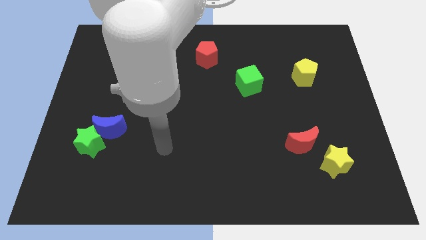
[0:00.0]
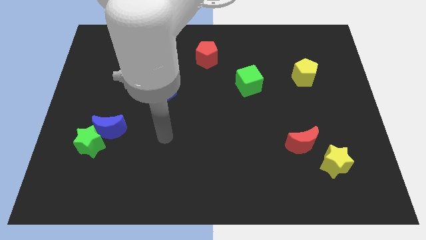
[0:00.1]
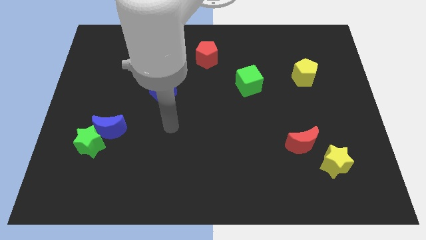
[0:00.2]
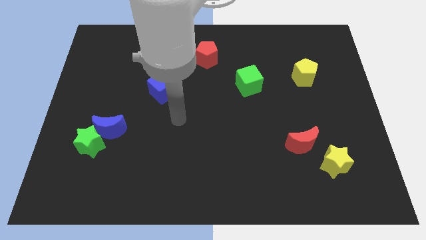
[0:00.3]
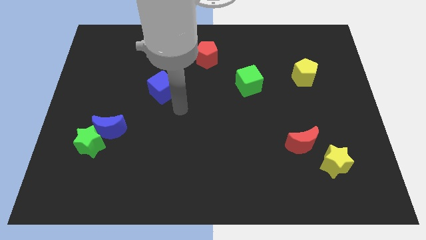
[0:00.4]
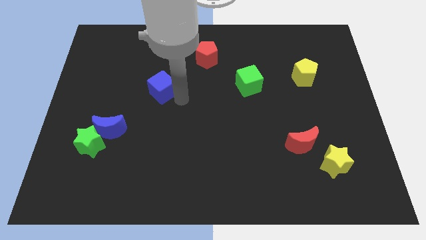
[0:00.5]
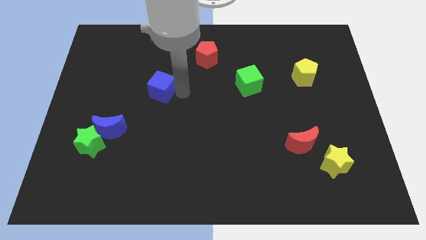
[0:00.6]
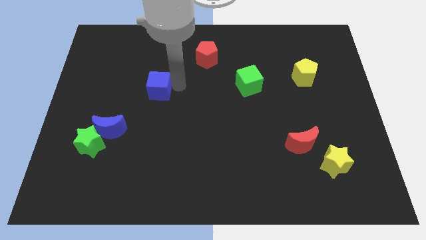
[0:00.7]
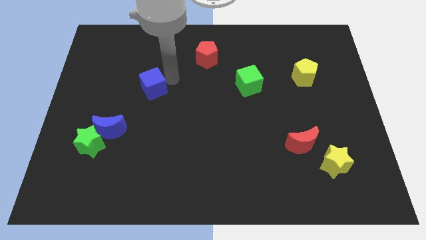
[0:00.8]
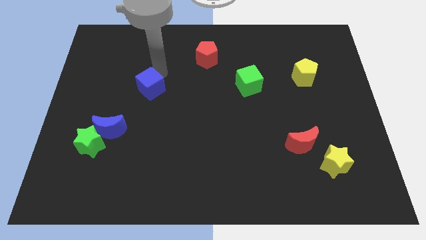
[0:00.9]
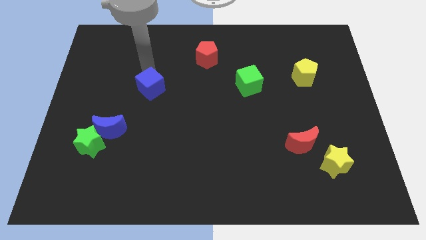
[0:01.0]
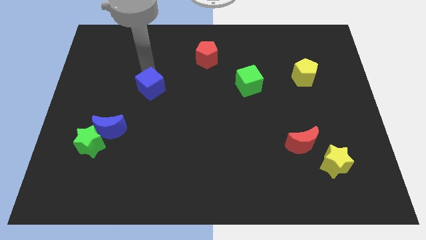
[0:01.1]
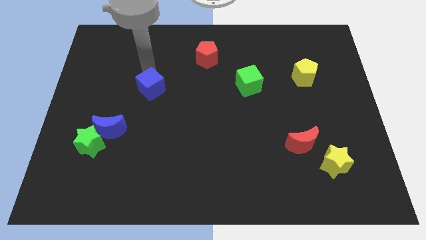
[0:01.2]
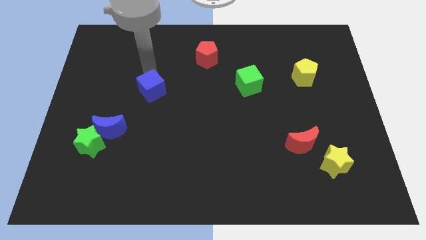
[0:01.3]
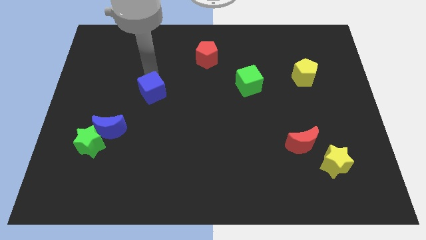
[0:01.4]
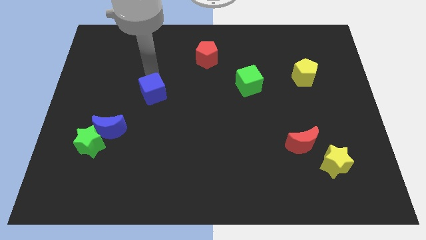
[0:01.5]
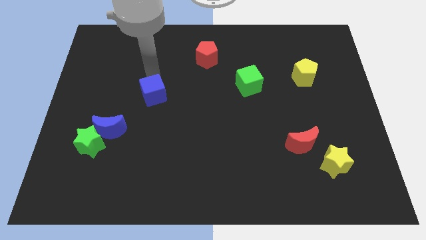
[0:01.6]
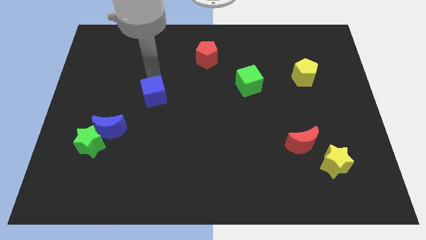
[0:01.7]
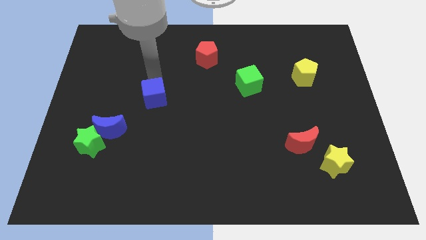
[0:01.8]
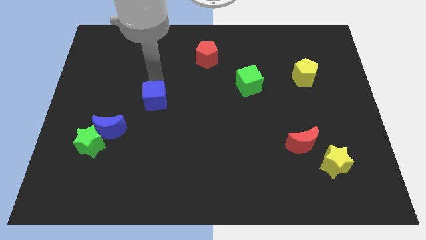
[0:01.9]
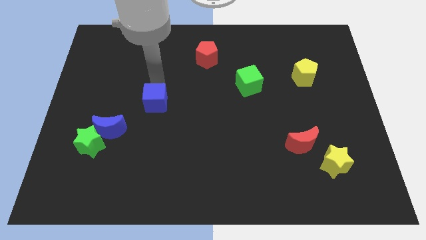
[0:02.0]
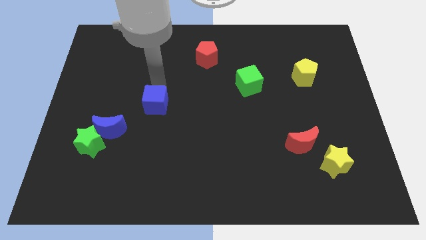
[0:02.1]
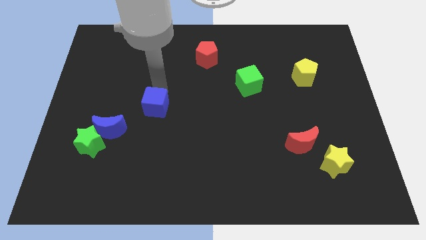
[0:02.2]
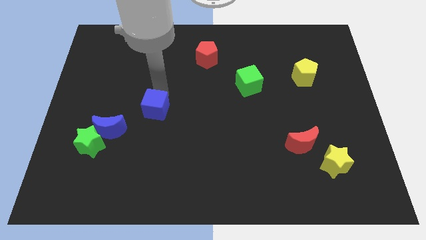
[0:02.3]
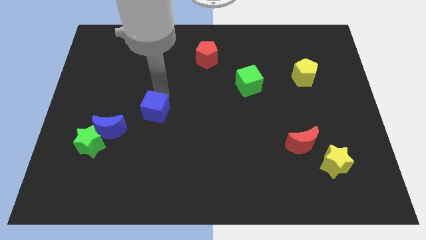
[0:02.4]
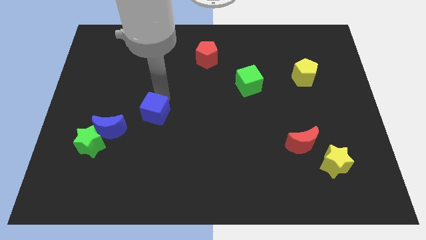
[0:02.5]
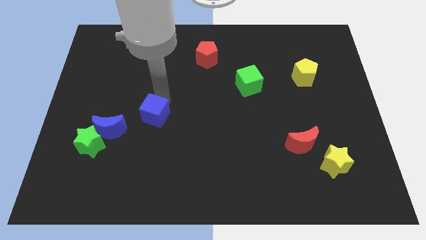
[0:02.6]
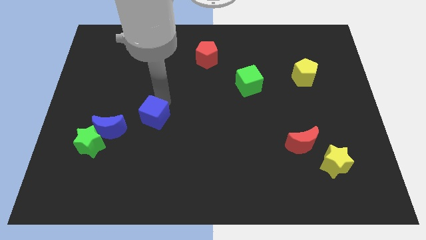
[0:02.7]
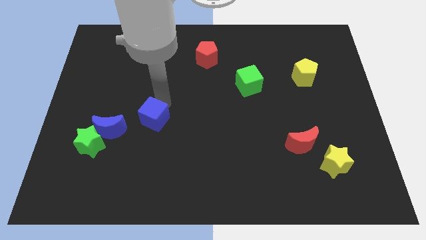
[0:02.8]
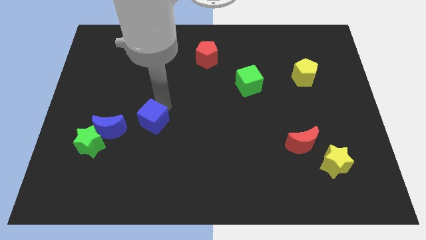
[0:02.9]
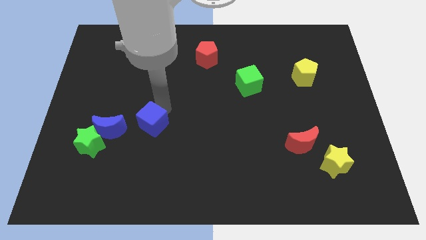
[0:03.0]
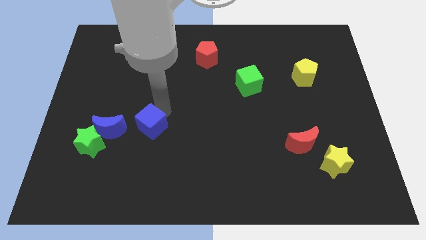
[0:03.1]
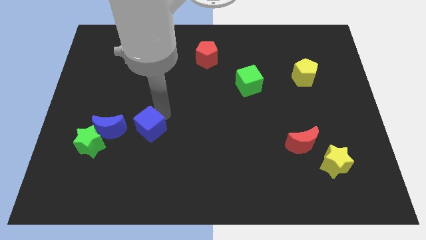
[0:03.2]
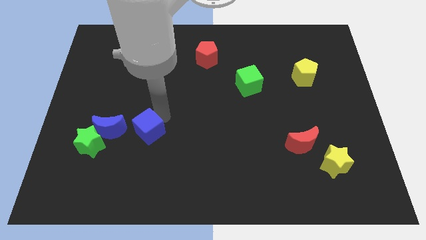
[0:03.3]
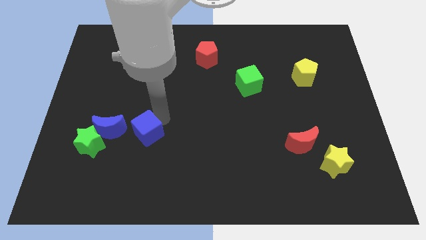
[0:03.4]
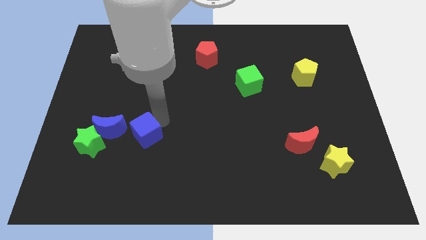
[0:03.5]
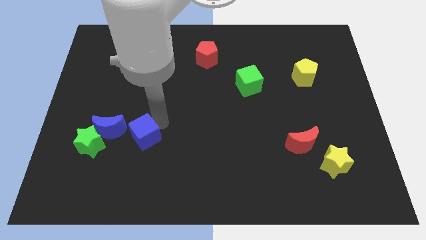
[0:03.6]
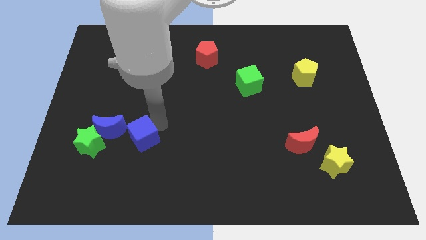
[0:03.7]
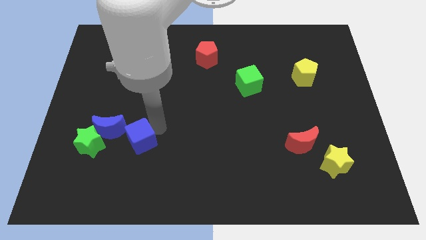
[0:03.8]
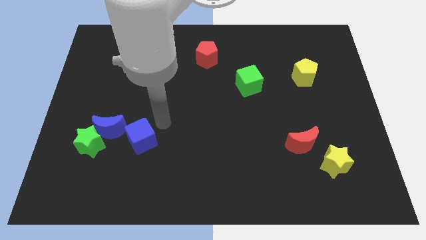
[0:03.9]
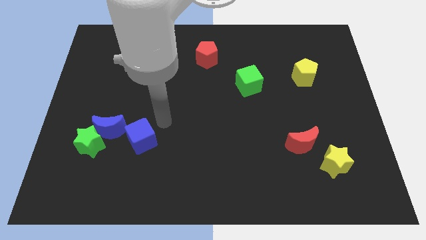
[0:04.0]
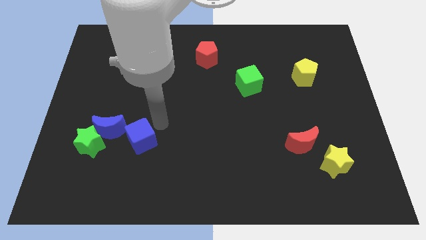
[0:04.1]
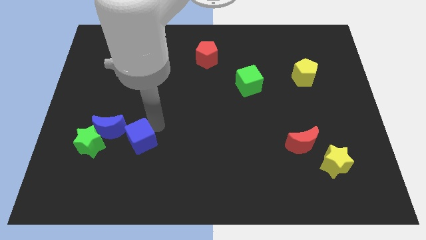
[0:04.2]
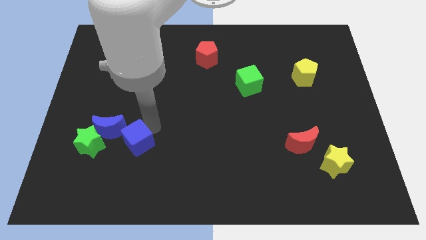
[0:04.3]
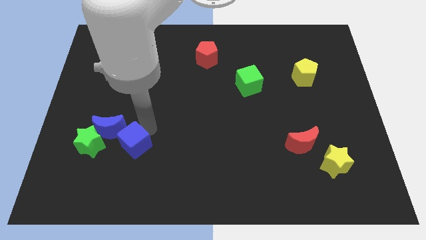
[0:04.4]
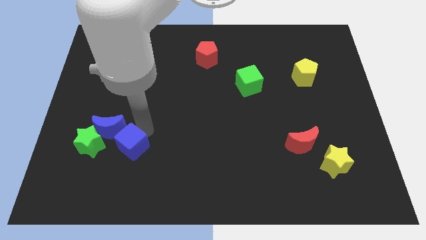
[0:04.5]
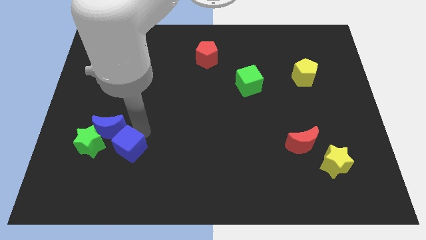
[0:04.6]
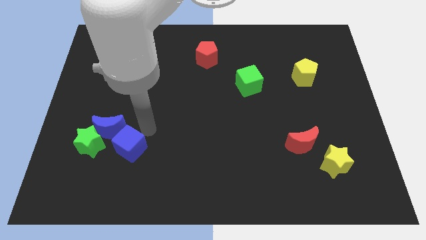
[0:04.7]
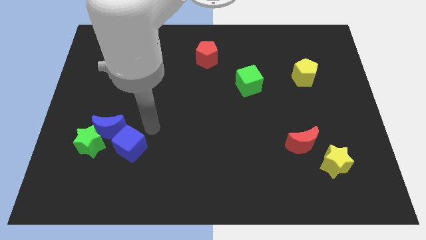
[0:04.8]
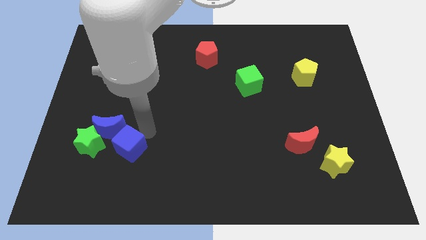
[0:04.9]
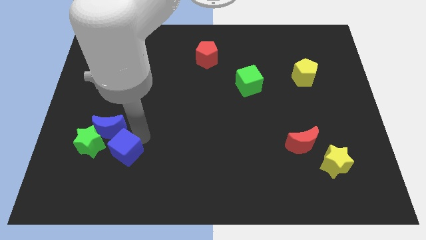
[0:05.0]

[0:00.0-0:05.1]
slide the blue cube to the bottom right of the green star

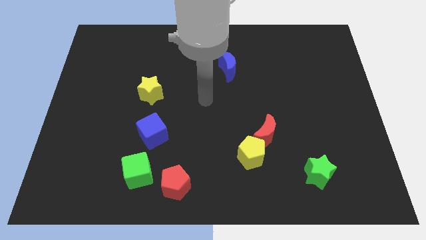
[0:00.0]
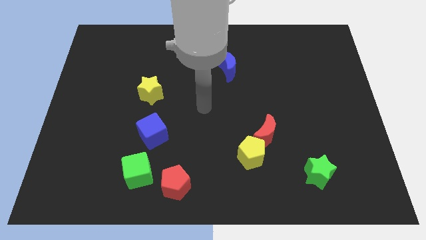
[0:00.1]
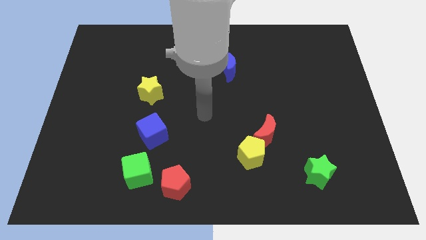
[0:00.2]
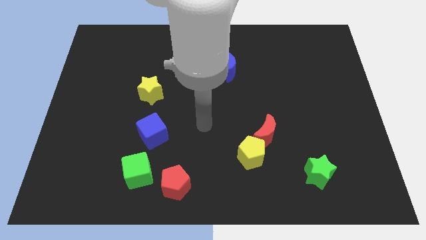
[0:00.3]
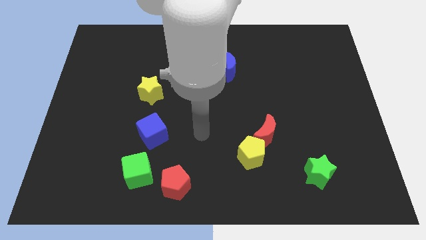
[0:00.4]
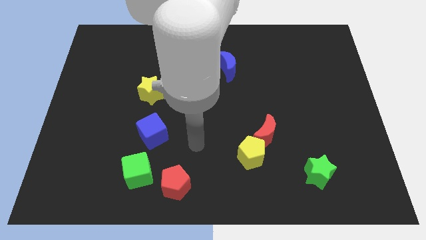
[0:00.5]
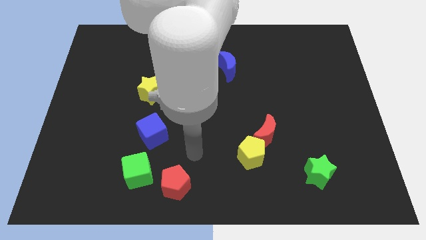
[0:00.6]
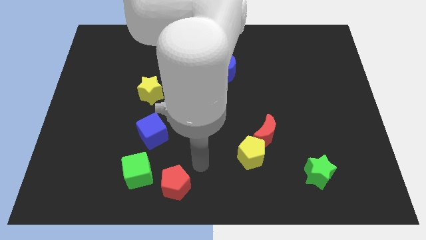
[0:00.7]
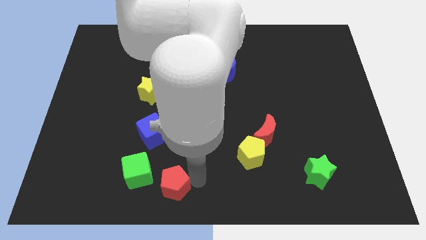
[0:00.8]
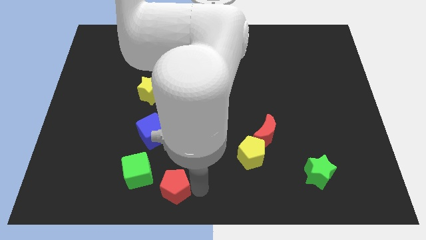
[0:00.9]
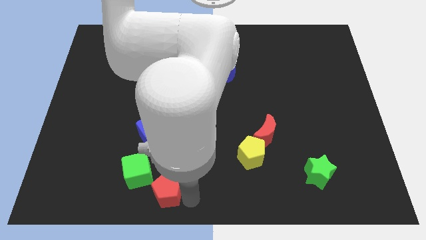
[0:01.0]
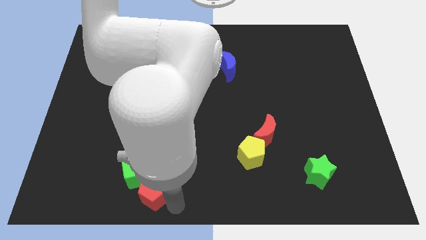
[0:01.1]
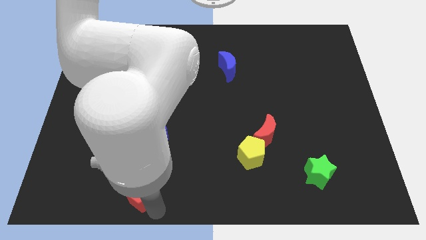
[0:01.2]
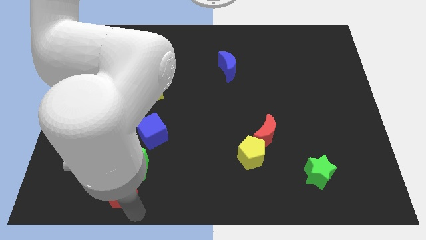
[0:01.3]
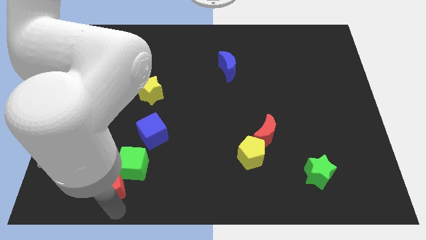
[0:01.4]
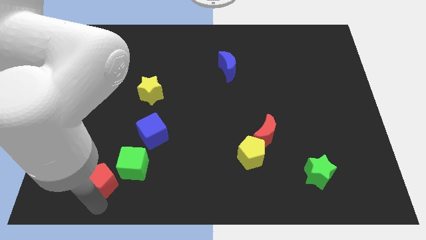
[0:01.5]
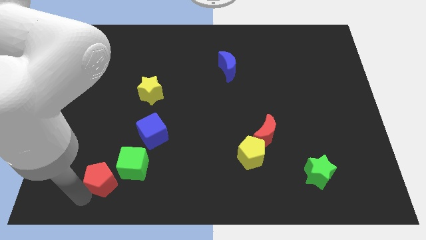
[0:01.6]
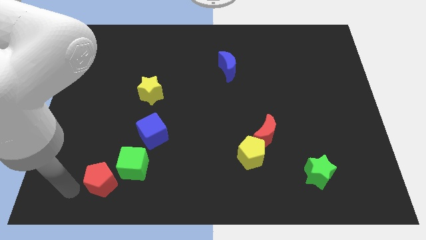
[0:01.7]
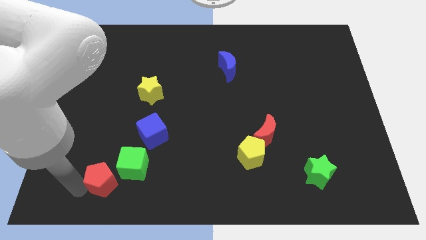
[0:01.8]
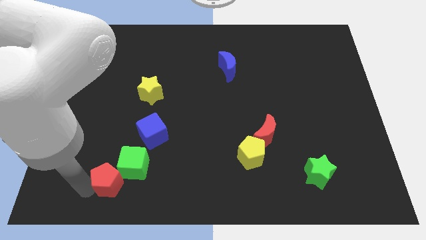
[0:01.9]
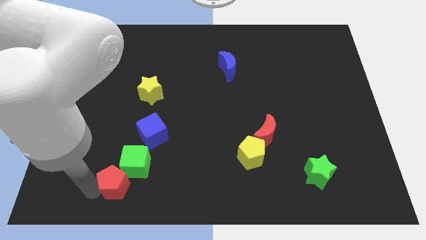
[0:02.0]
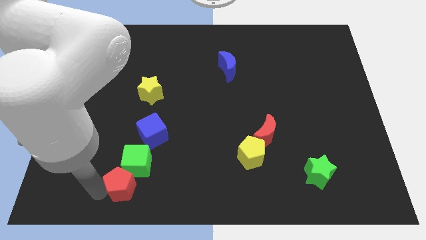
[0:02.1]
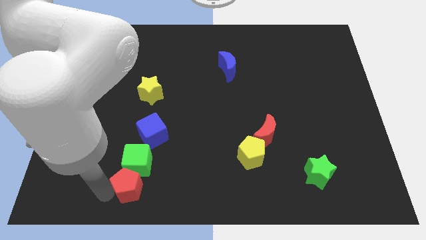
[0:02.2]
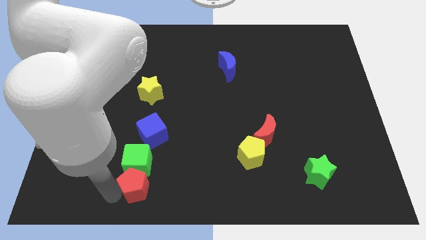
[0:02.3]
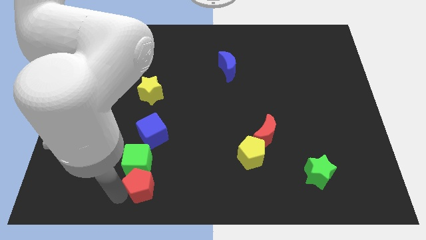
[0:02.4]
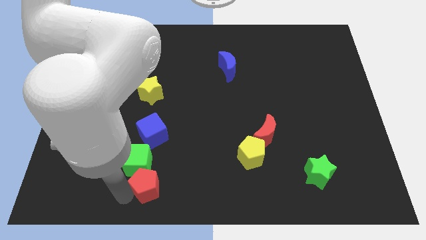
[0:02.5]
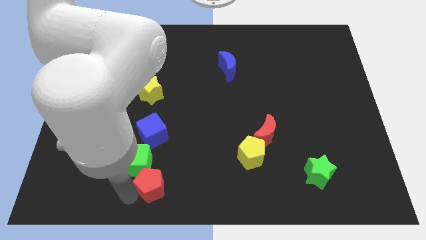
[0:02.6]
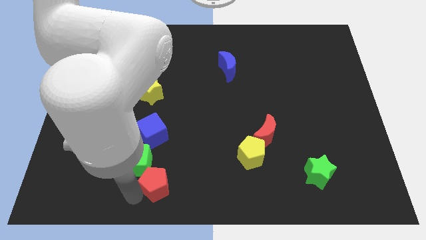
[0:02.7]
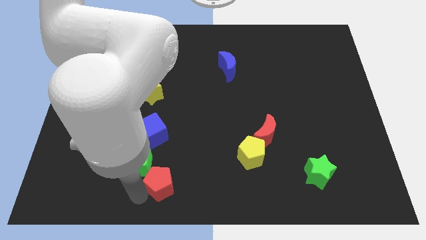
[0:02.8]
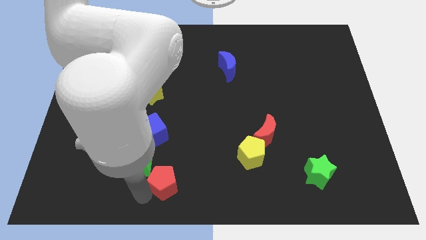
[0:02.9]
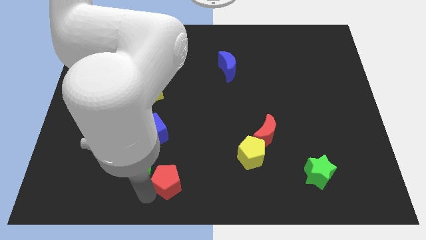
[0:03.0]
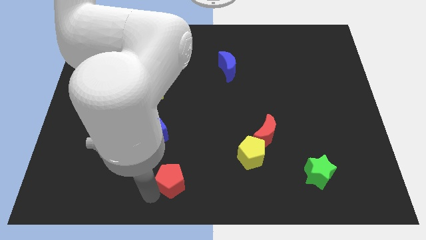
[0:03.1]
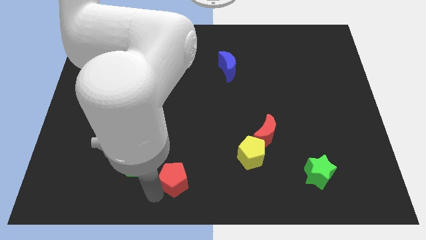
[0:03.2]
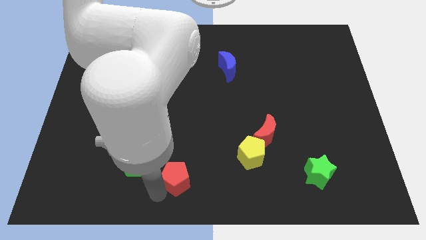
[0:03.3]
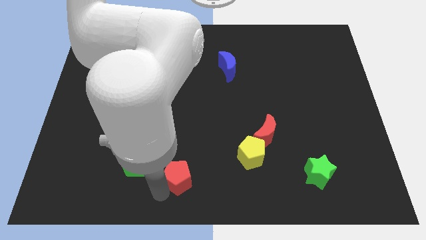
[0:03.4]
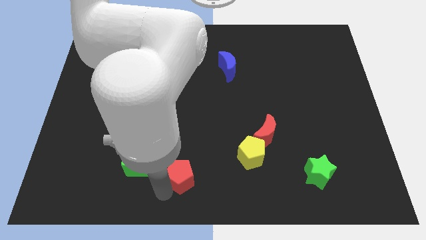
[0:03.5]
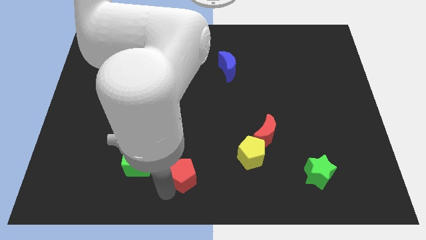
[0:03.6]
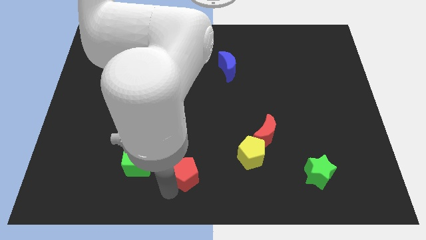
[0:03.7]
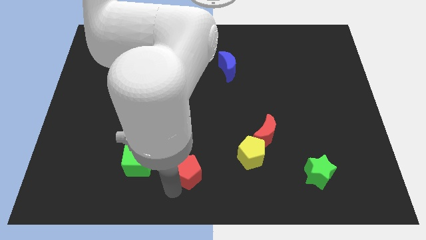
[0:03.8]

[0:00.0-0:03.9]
move the red pentagon left of the yellow pentagon
